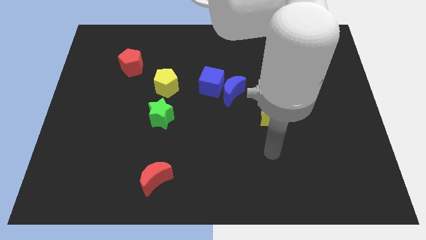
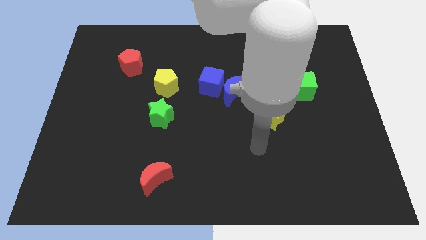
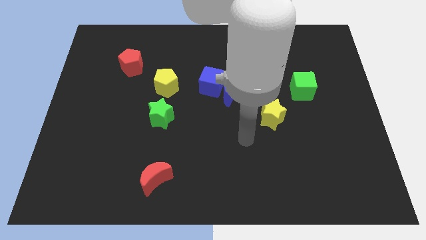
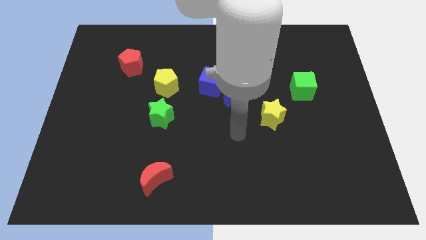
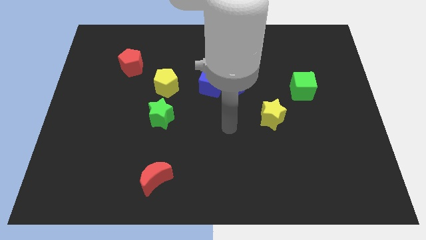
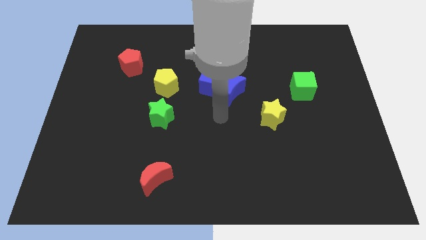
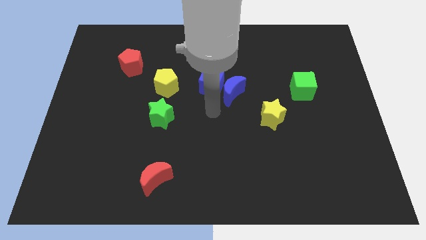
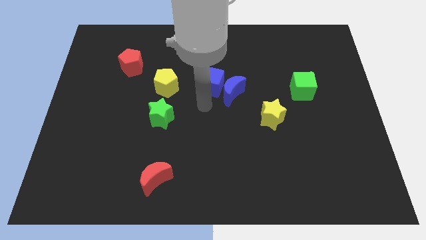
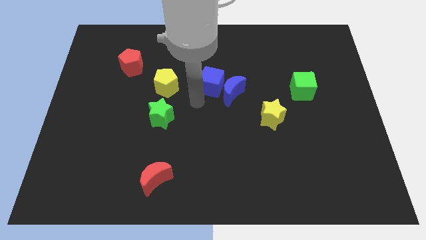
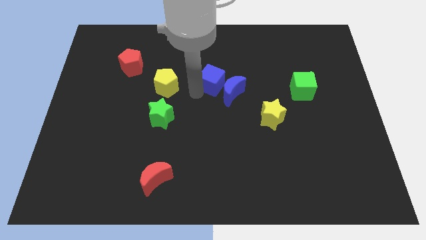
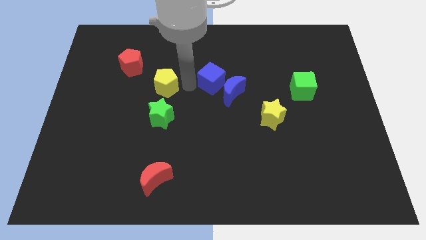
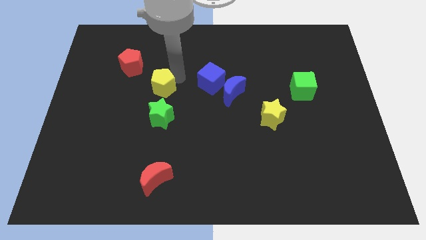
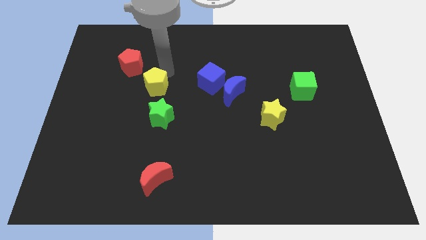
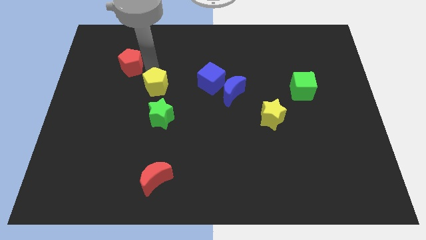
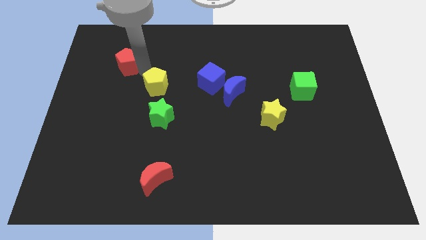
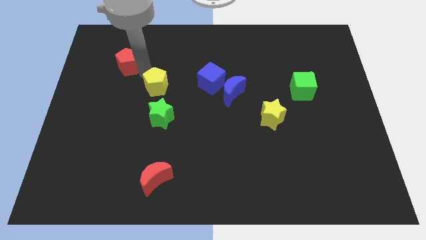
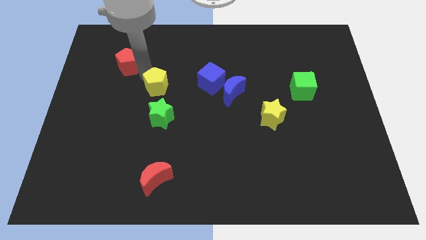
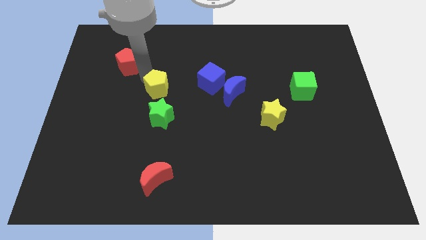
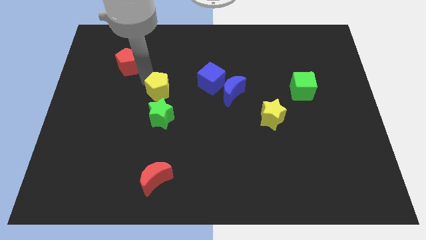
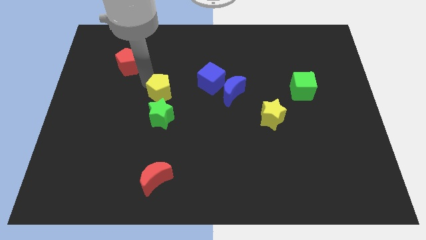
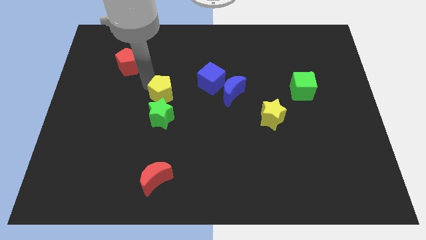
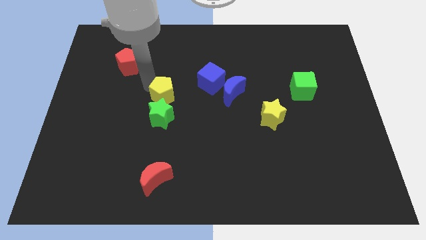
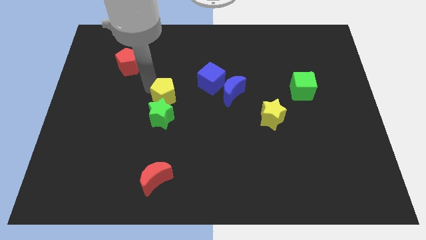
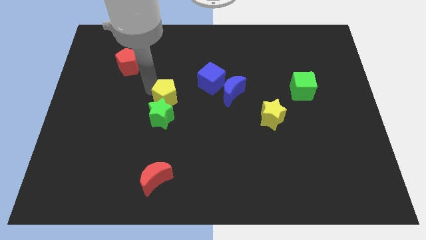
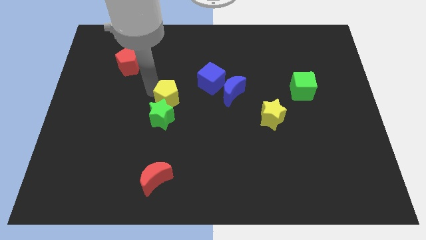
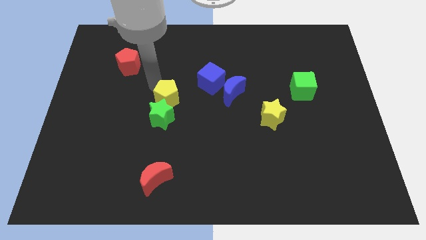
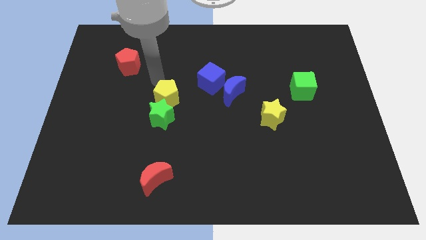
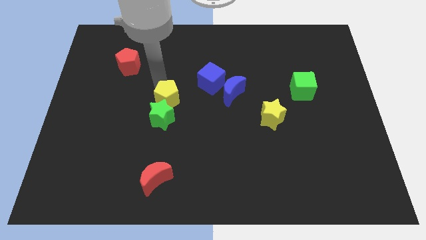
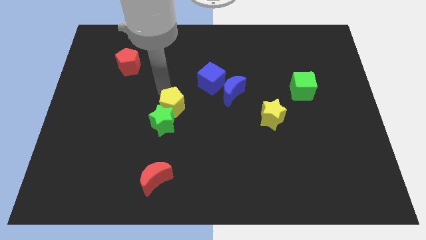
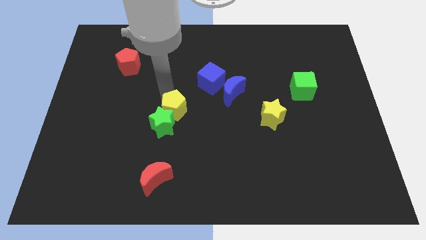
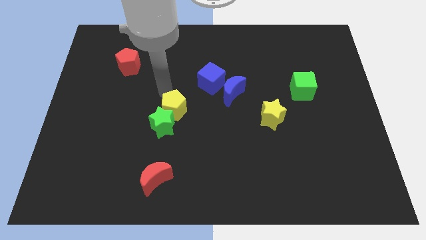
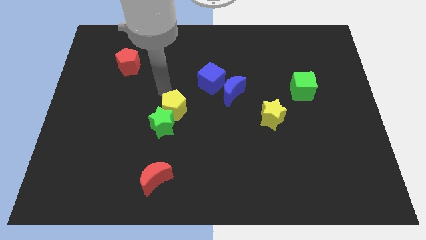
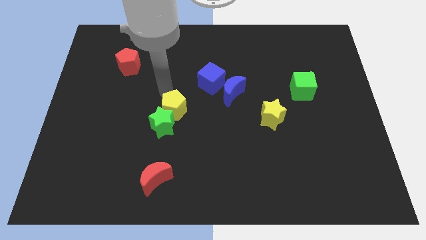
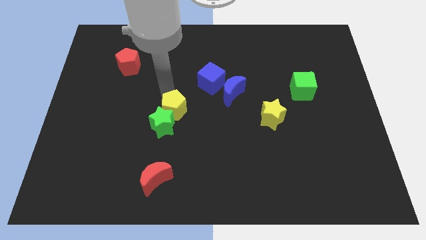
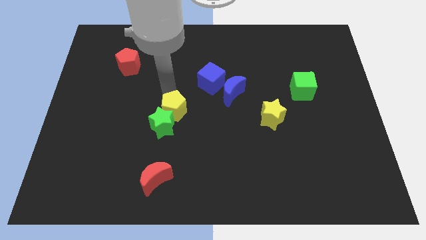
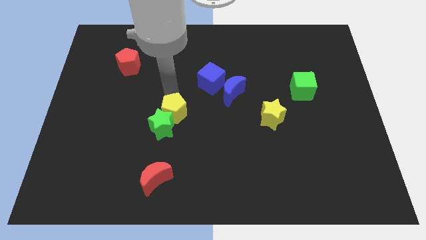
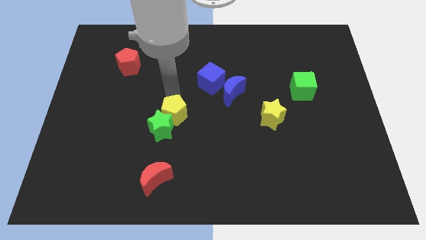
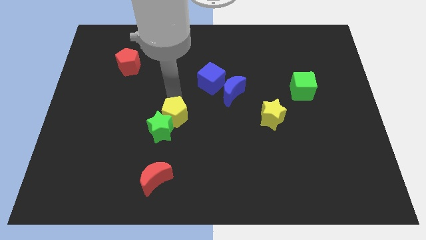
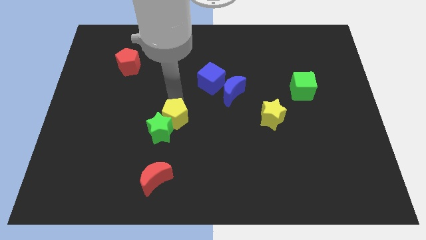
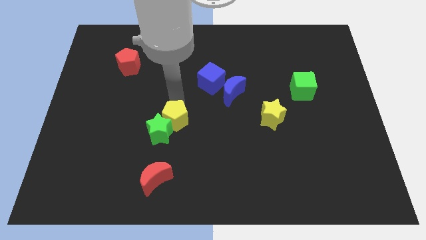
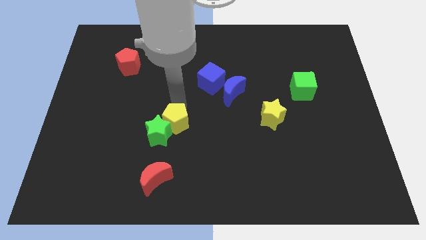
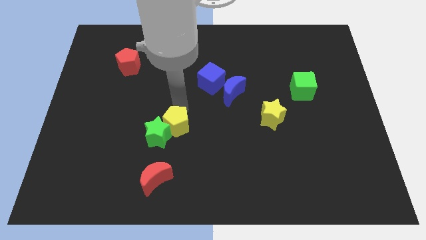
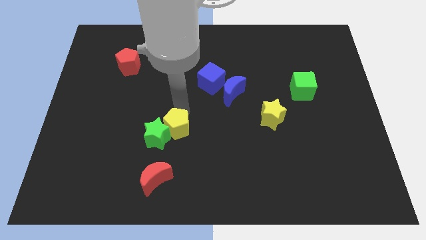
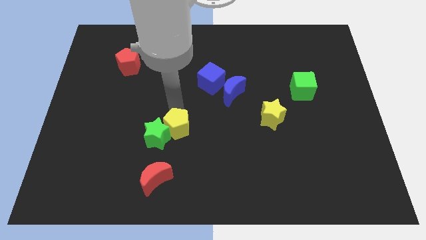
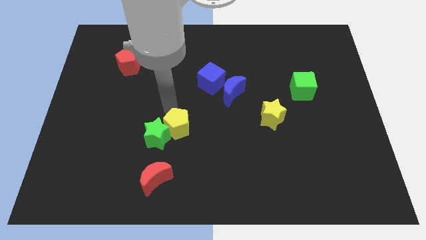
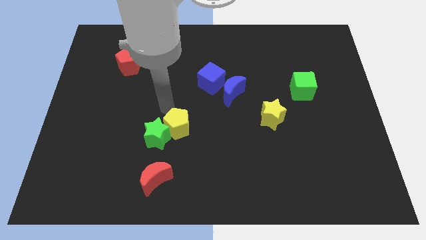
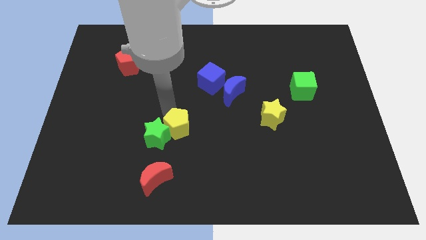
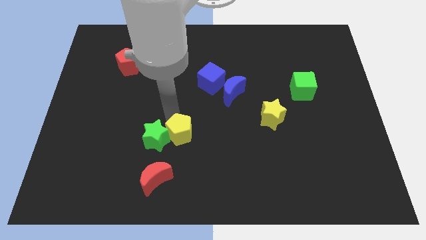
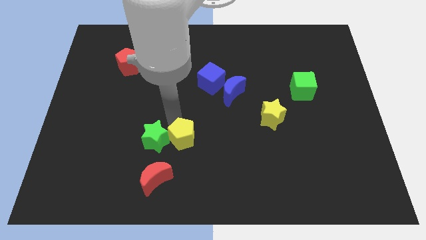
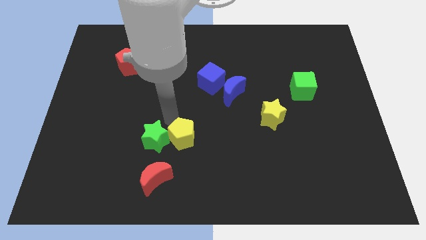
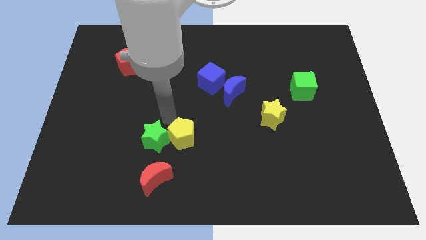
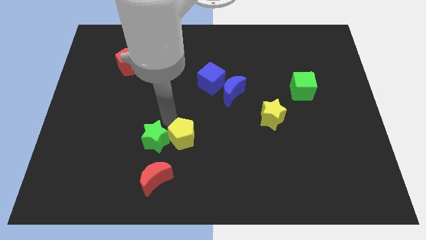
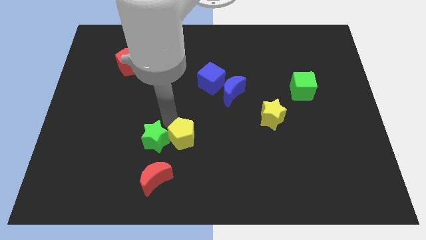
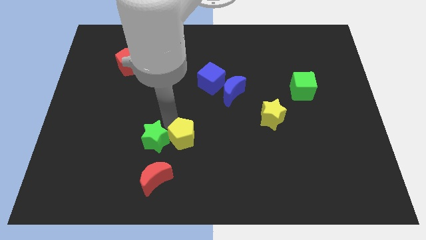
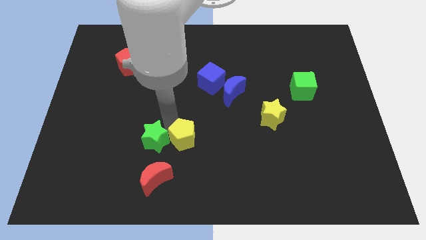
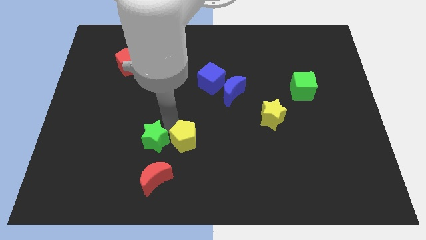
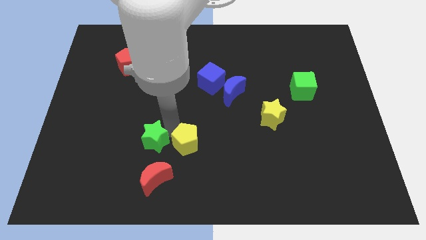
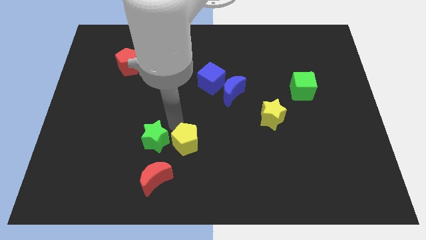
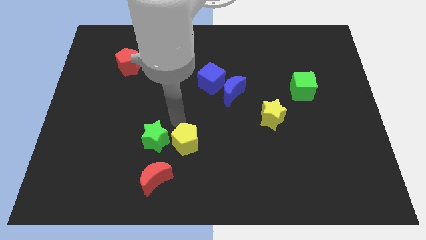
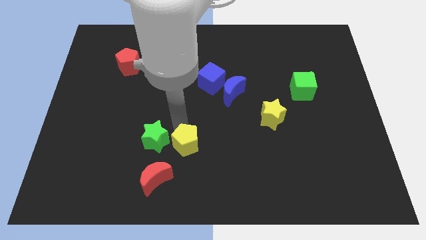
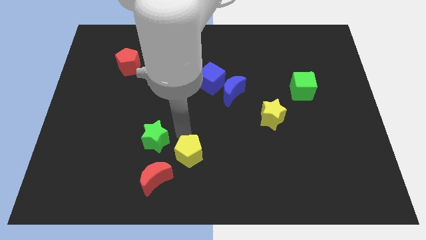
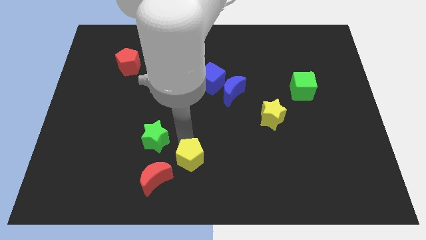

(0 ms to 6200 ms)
slide the yellow pentagon to the bottom

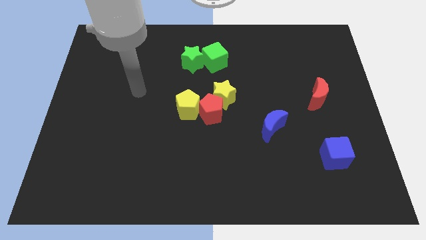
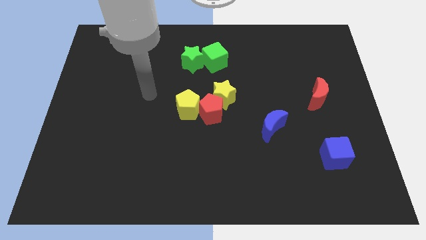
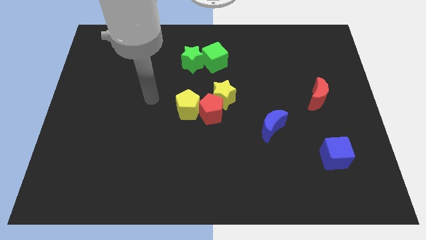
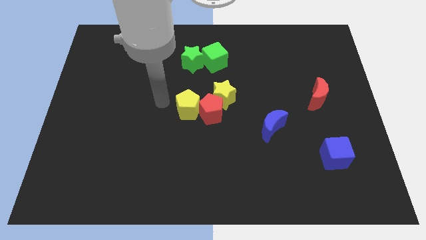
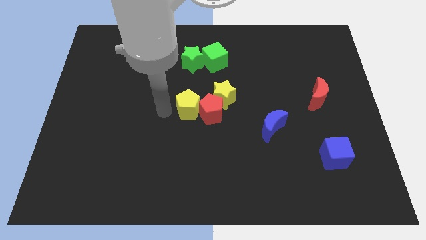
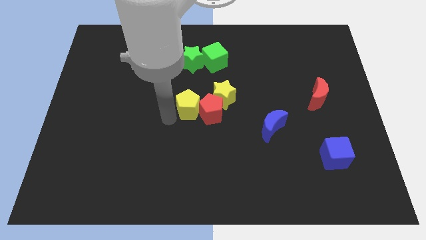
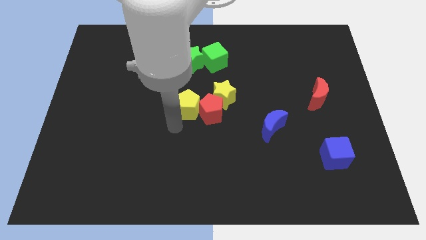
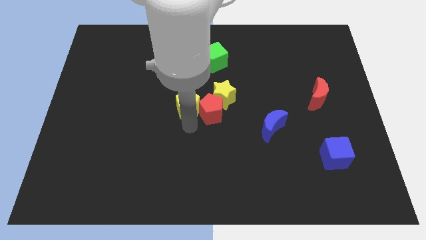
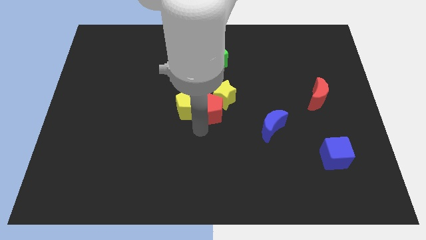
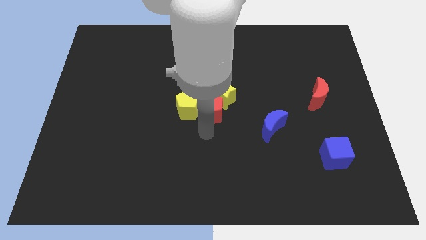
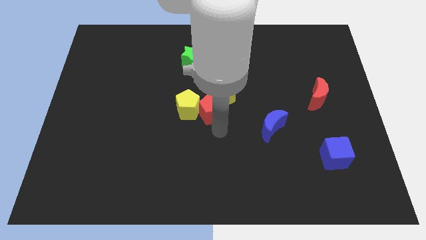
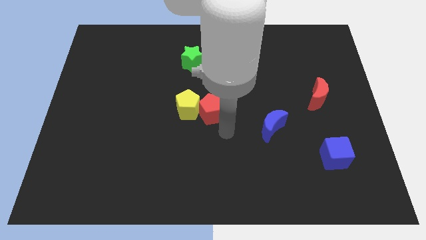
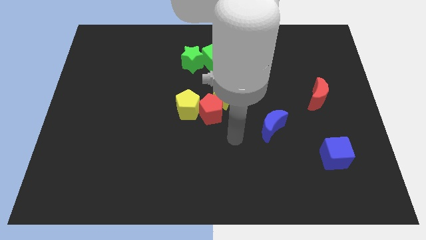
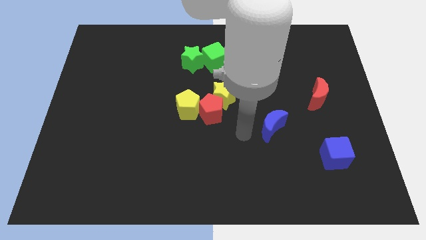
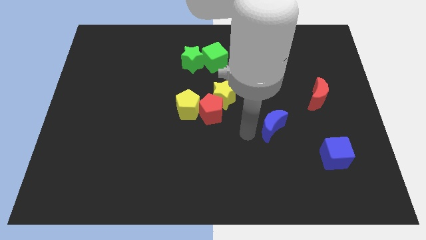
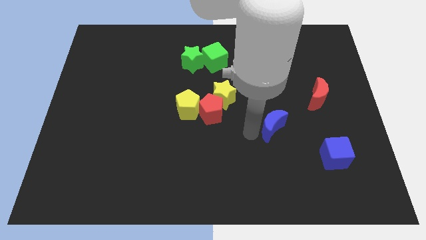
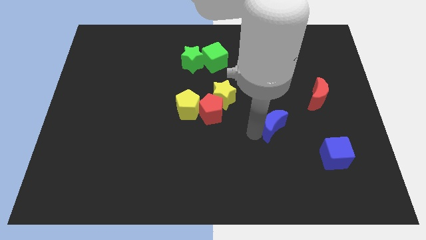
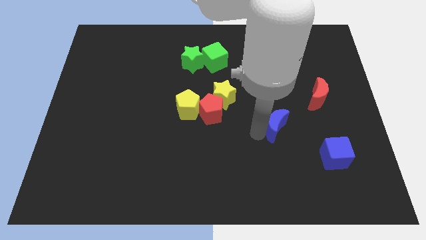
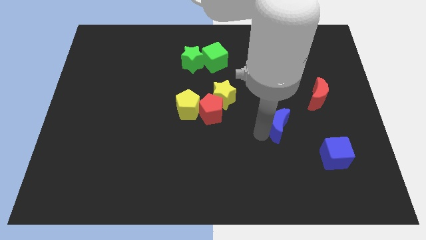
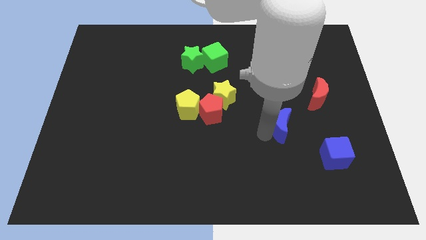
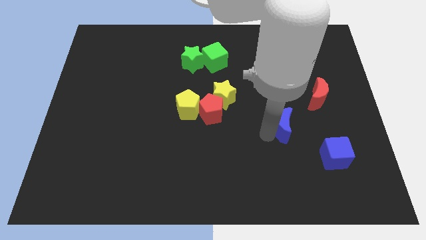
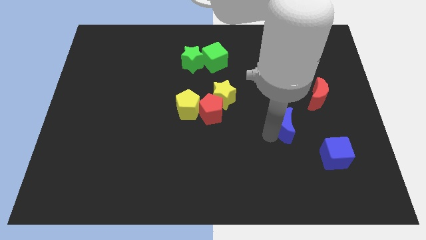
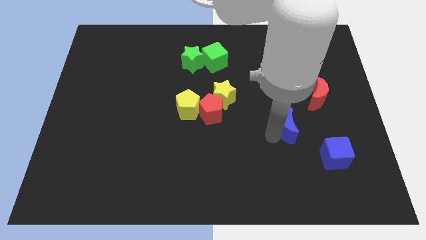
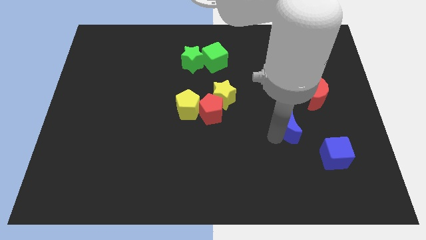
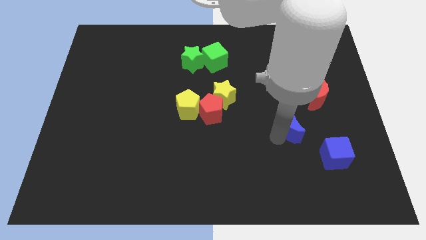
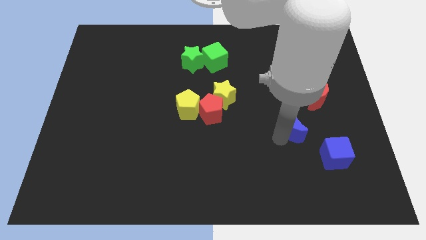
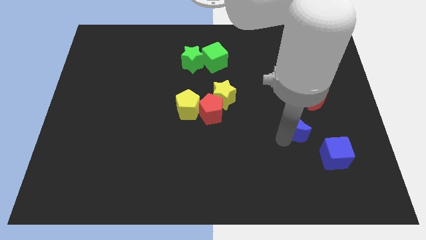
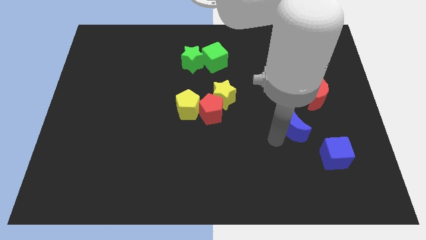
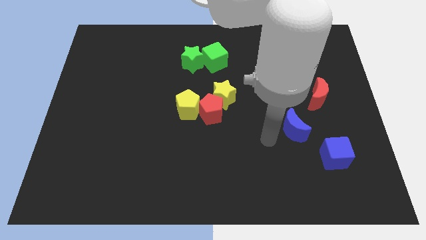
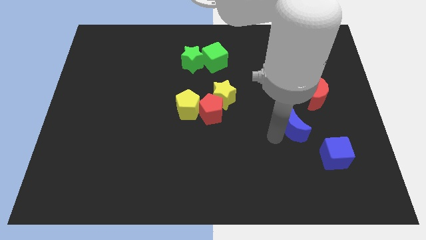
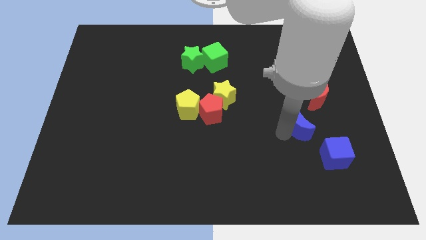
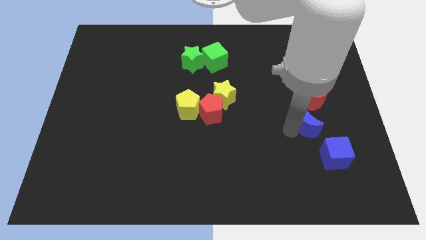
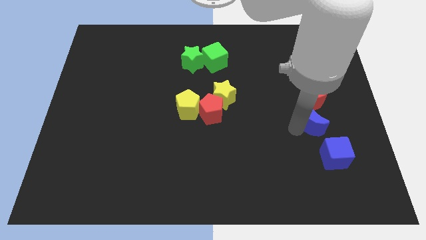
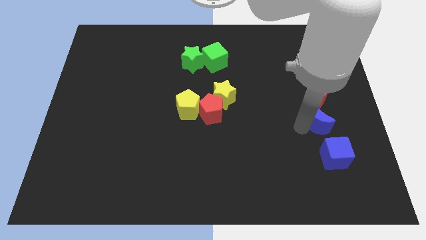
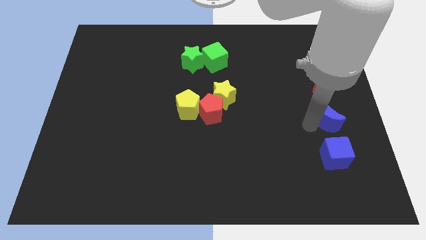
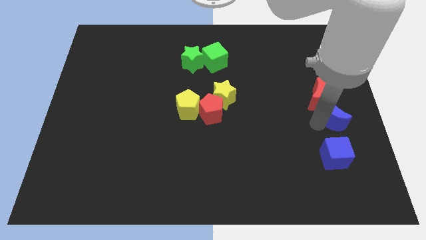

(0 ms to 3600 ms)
slide the blue moon to the right side of the board
